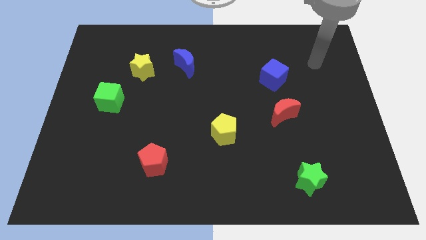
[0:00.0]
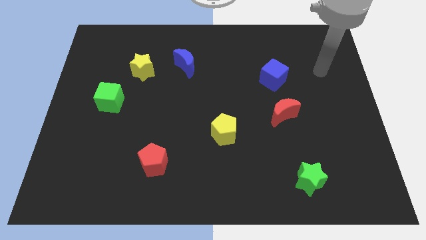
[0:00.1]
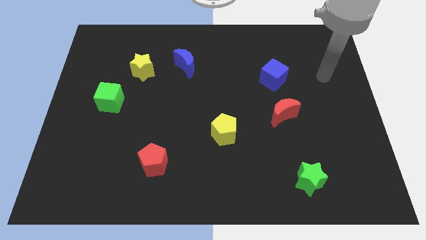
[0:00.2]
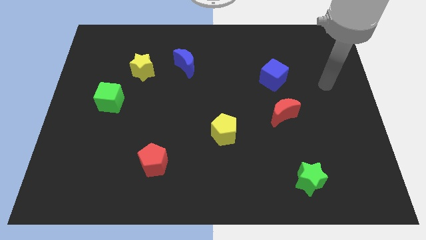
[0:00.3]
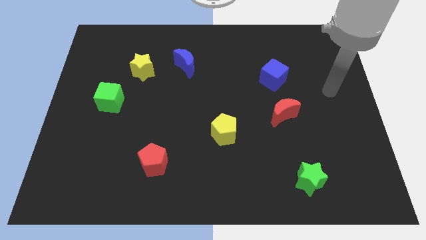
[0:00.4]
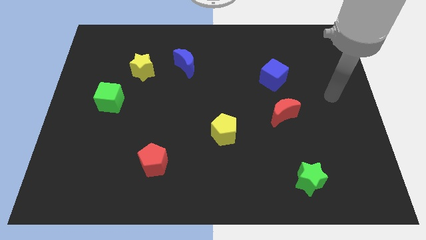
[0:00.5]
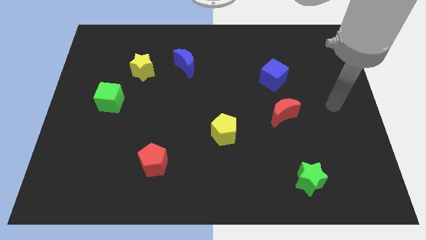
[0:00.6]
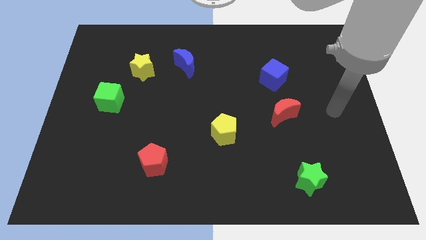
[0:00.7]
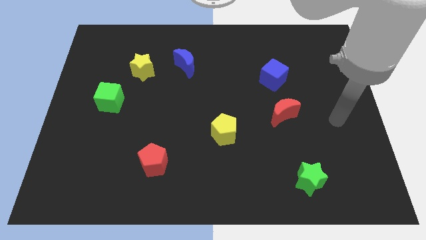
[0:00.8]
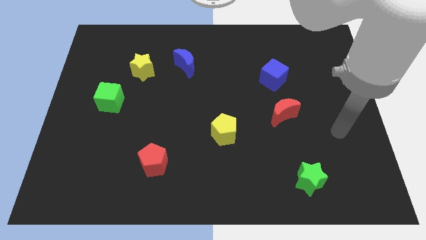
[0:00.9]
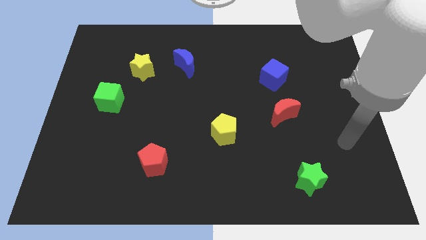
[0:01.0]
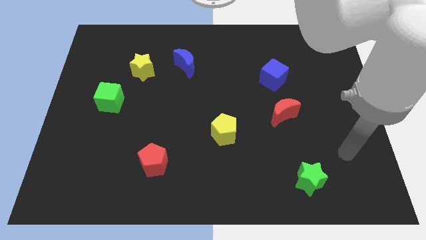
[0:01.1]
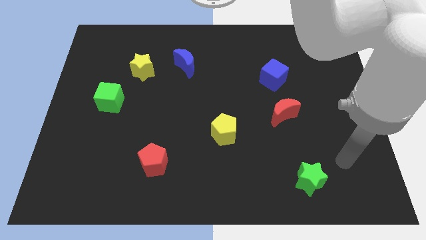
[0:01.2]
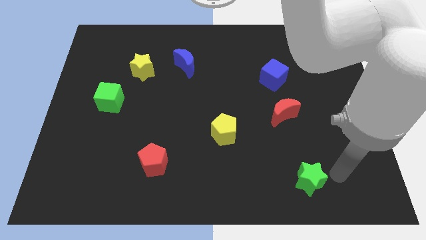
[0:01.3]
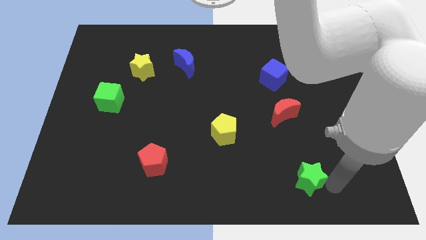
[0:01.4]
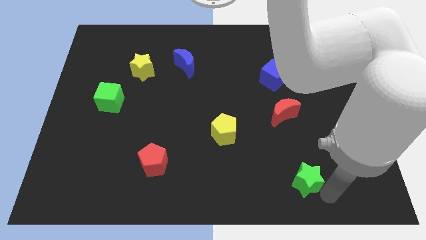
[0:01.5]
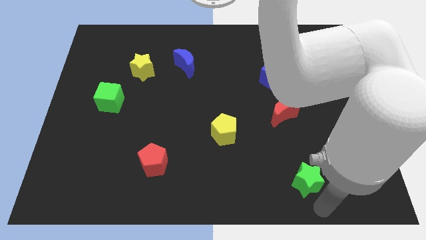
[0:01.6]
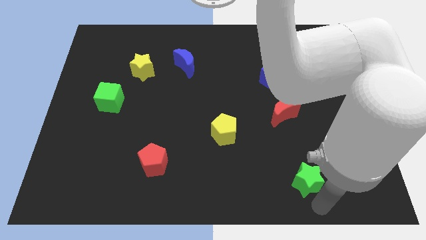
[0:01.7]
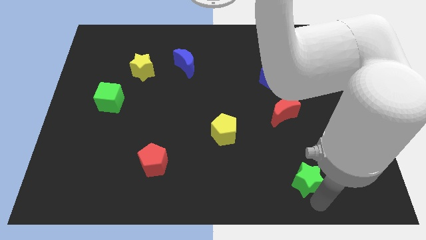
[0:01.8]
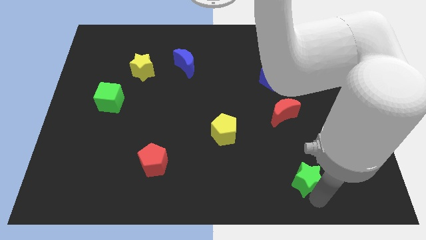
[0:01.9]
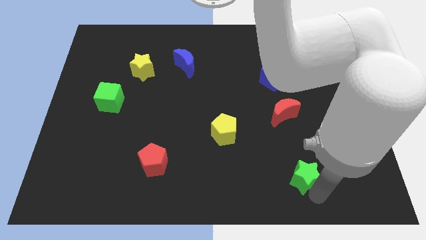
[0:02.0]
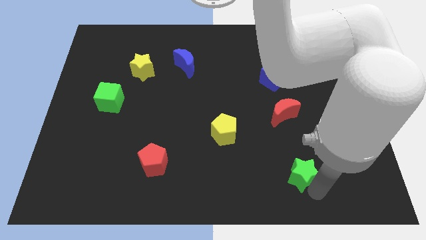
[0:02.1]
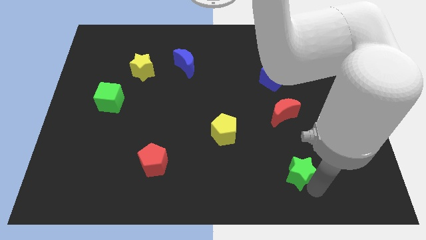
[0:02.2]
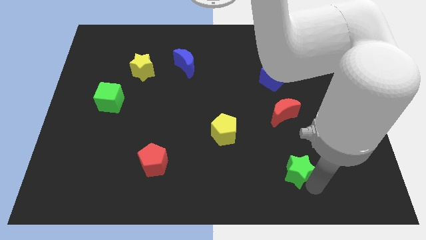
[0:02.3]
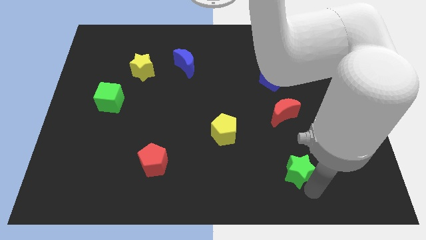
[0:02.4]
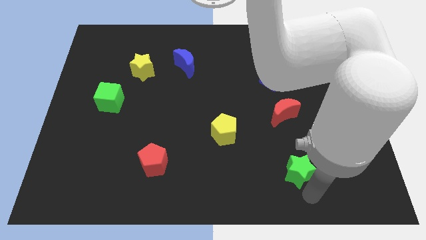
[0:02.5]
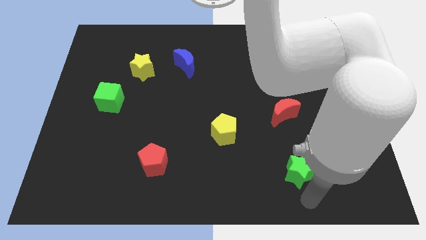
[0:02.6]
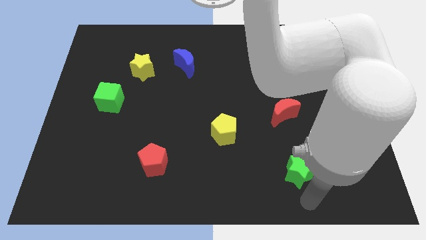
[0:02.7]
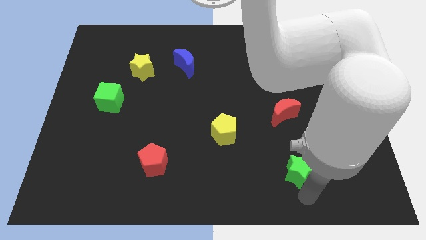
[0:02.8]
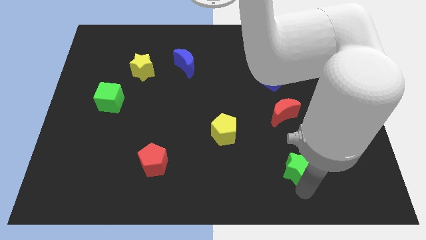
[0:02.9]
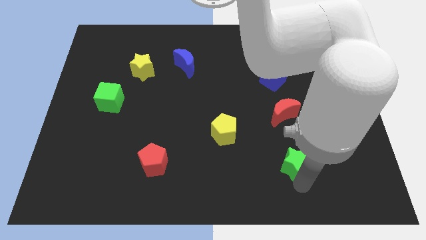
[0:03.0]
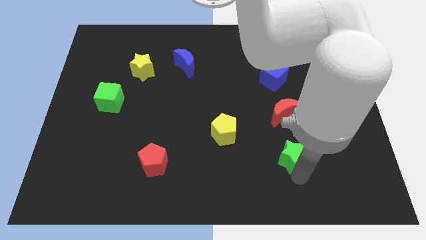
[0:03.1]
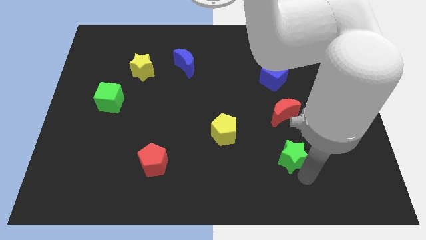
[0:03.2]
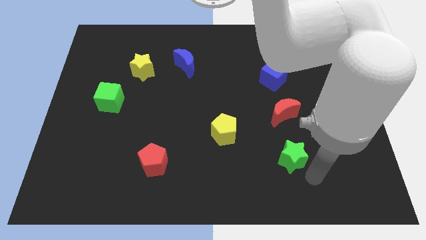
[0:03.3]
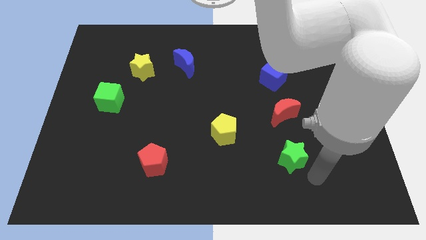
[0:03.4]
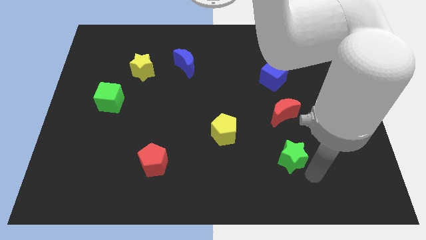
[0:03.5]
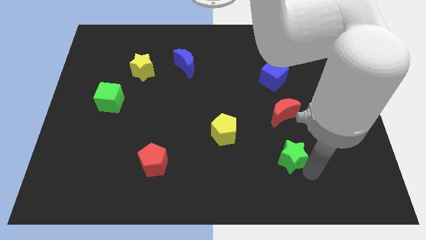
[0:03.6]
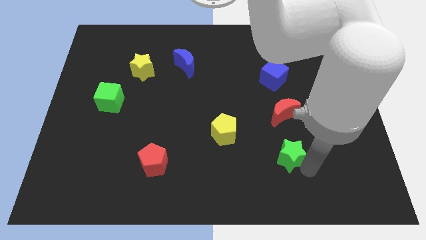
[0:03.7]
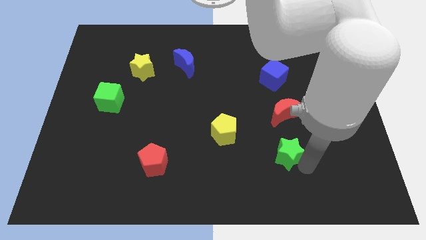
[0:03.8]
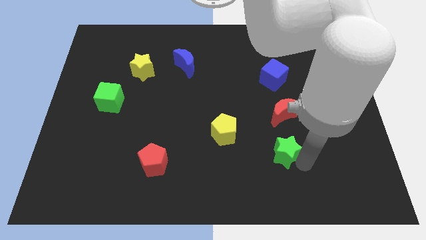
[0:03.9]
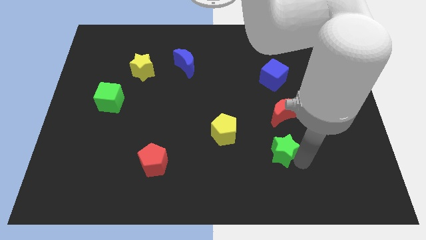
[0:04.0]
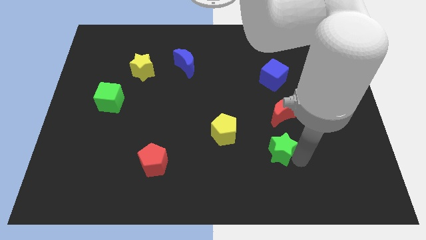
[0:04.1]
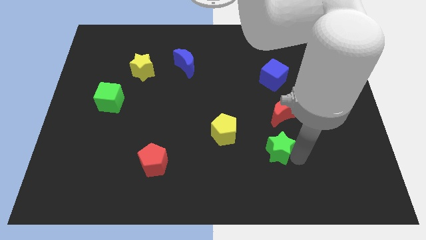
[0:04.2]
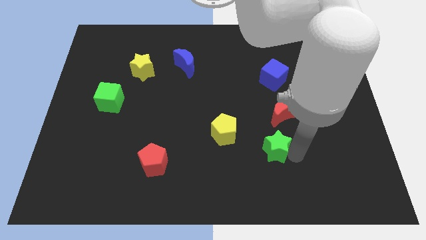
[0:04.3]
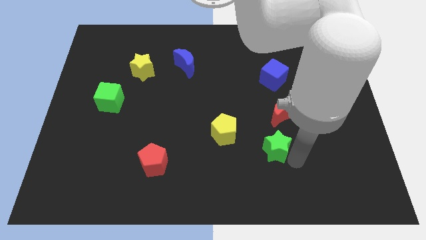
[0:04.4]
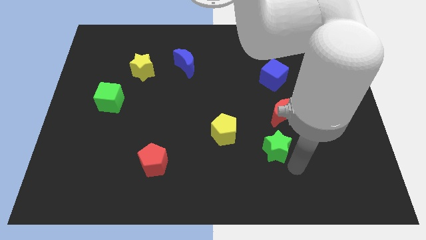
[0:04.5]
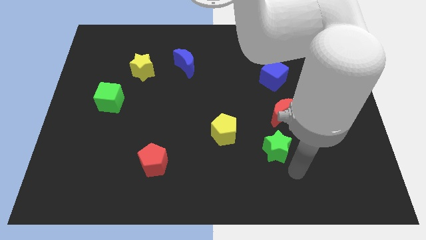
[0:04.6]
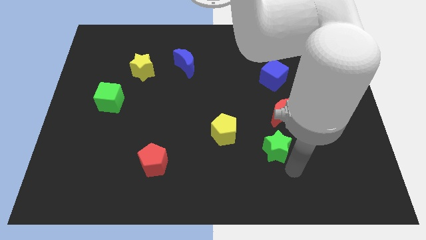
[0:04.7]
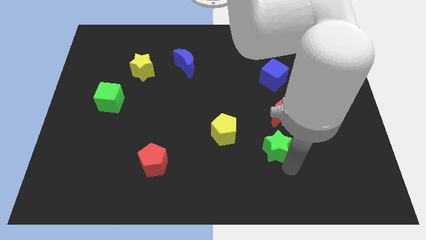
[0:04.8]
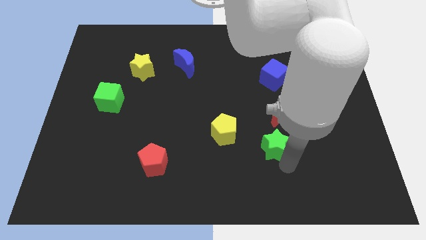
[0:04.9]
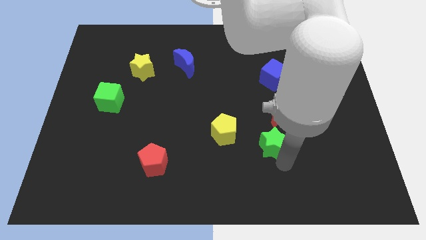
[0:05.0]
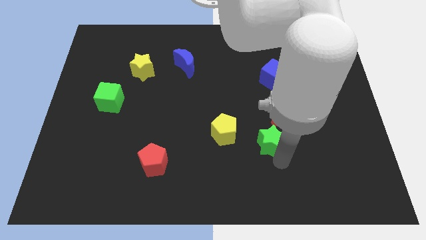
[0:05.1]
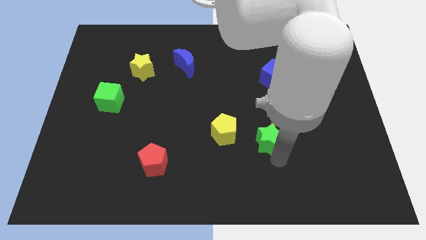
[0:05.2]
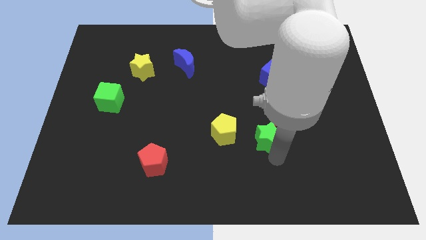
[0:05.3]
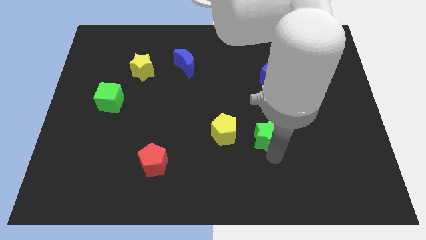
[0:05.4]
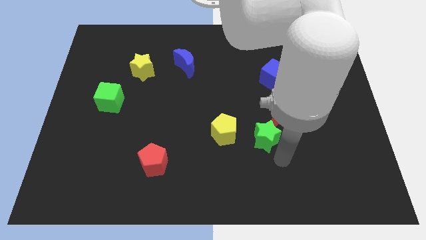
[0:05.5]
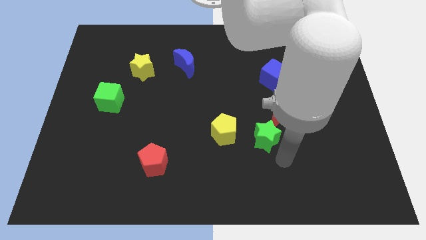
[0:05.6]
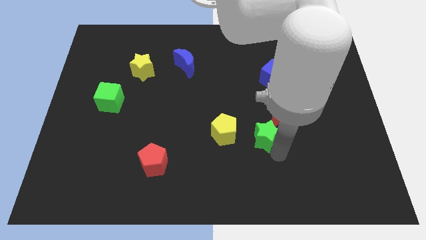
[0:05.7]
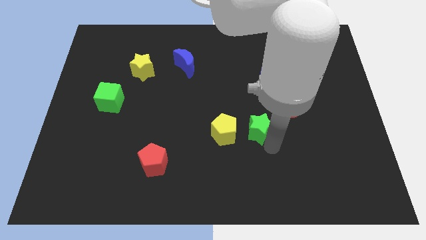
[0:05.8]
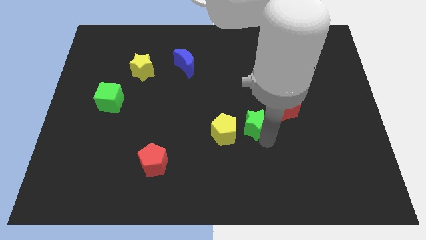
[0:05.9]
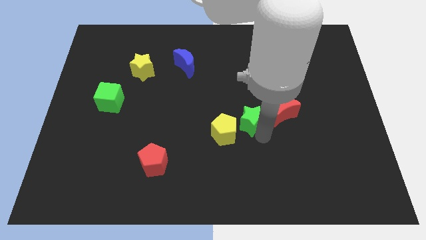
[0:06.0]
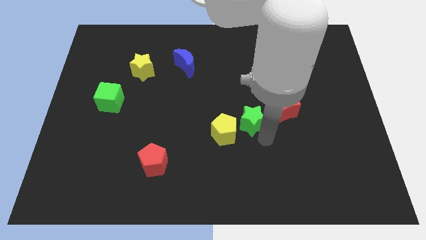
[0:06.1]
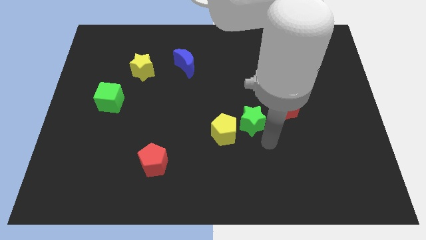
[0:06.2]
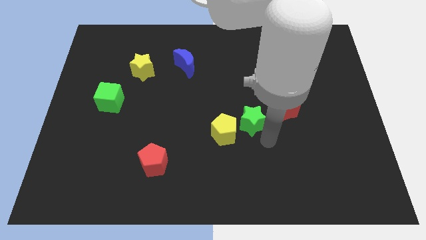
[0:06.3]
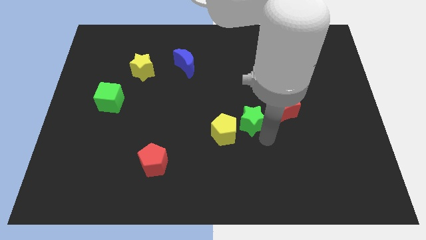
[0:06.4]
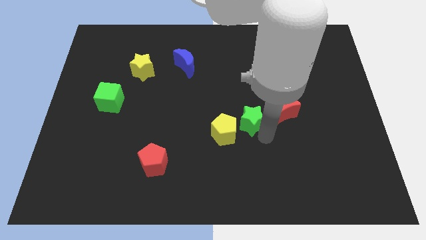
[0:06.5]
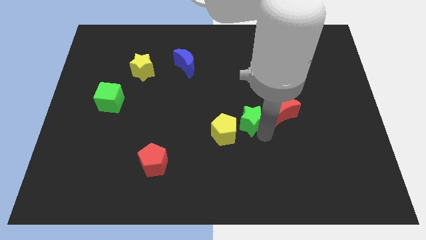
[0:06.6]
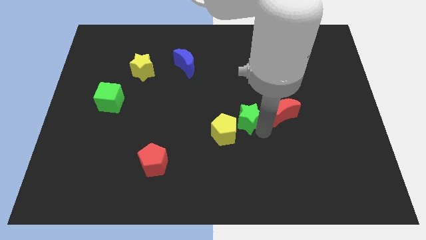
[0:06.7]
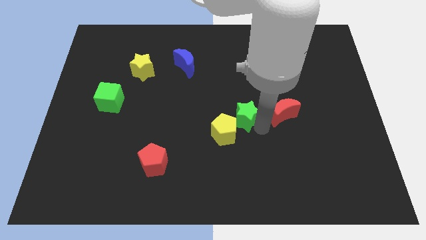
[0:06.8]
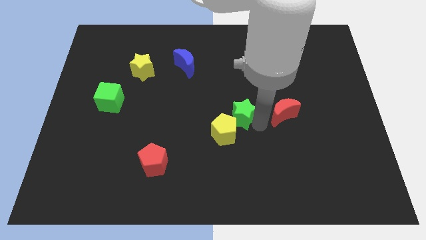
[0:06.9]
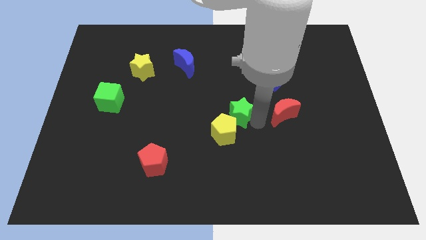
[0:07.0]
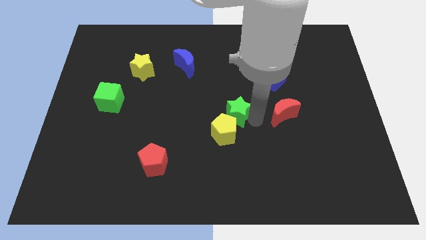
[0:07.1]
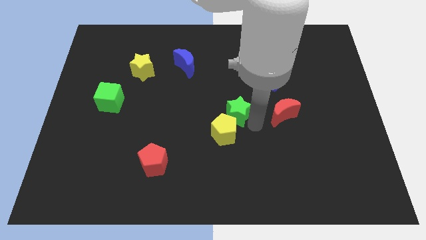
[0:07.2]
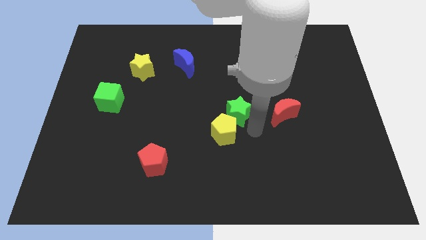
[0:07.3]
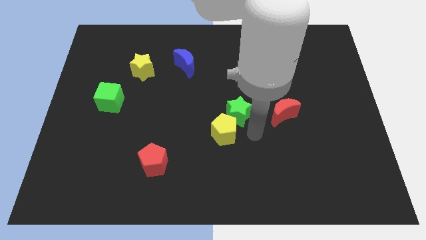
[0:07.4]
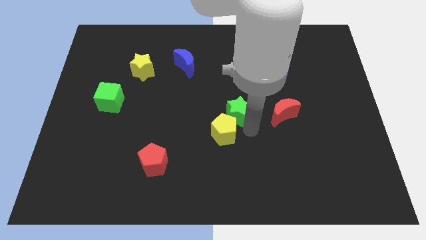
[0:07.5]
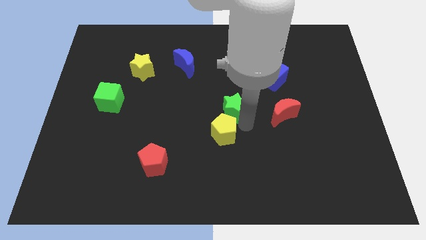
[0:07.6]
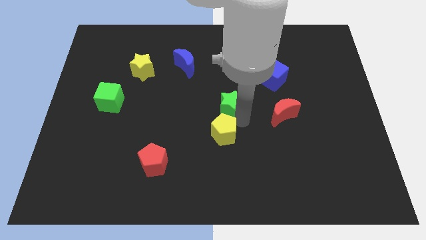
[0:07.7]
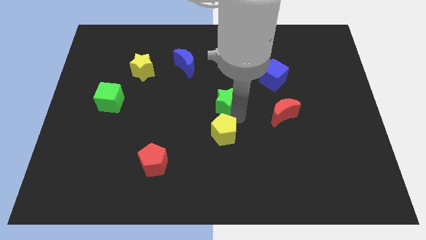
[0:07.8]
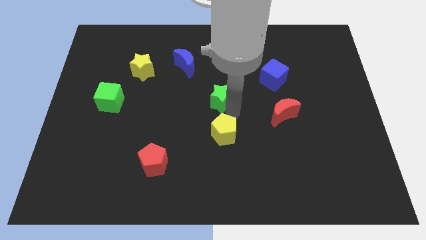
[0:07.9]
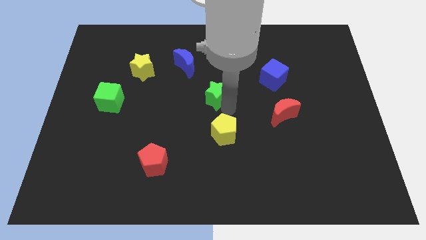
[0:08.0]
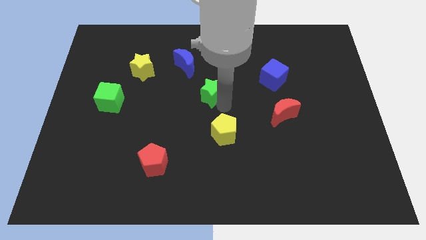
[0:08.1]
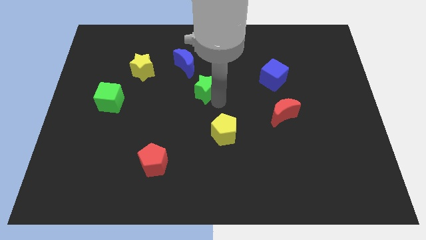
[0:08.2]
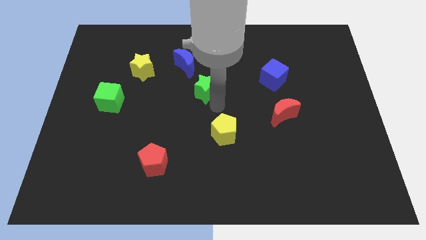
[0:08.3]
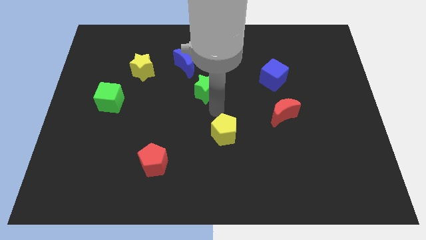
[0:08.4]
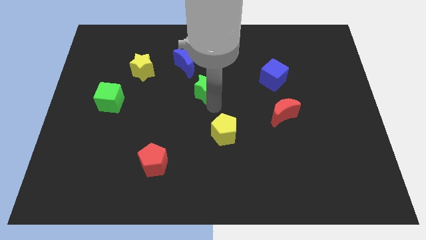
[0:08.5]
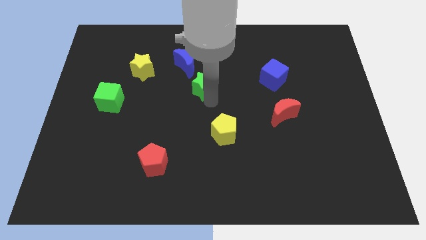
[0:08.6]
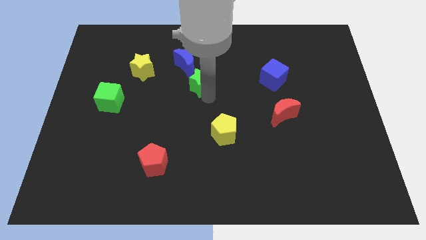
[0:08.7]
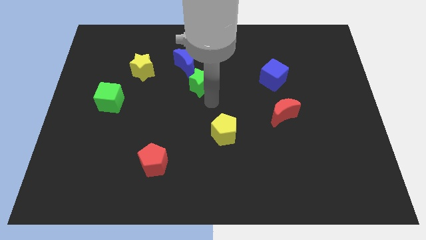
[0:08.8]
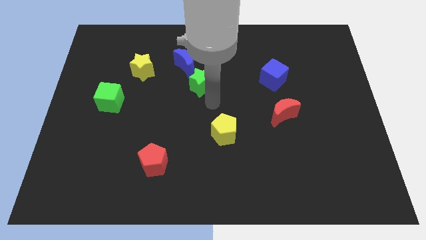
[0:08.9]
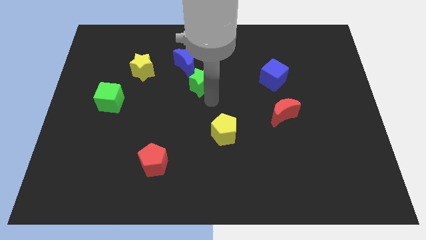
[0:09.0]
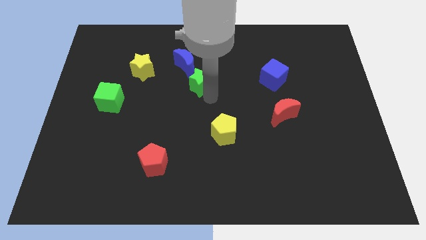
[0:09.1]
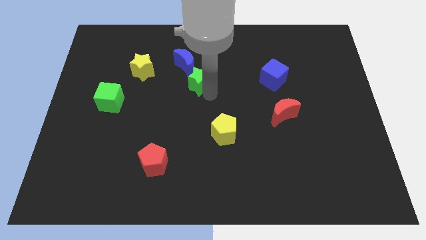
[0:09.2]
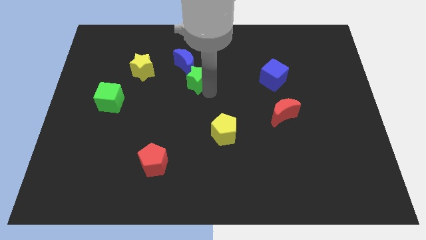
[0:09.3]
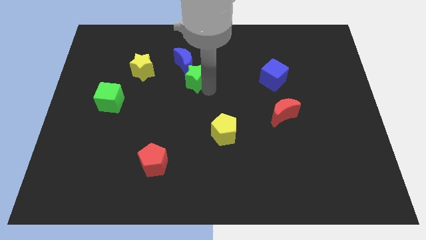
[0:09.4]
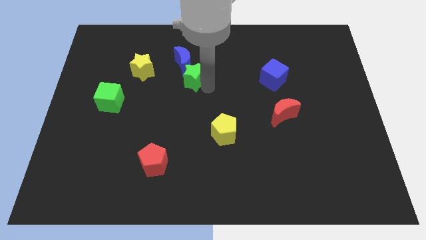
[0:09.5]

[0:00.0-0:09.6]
move the green star close to the blue moon
